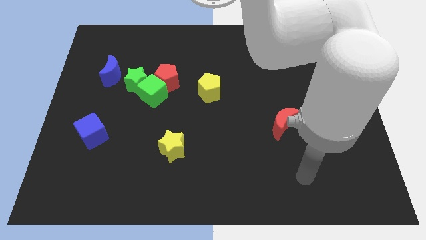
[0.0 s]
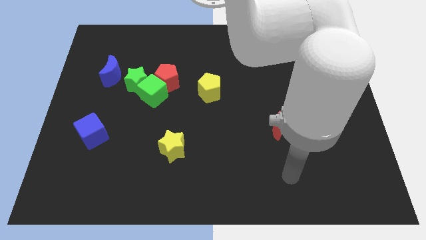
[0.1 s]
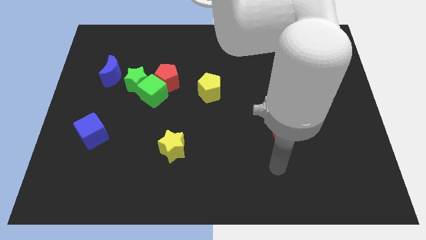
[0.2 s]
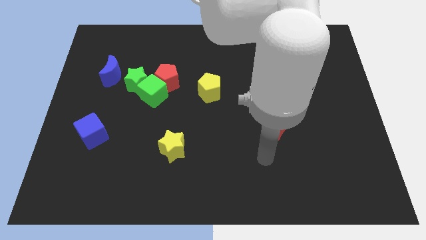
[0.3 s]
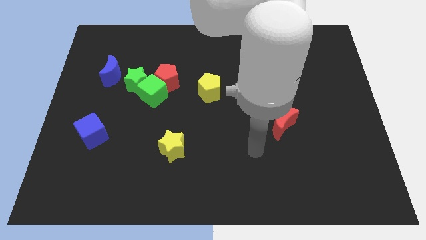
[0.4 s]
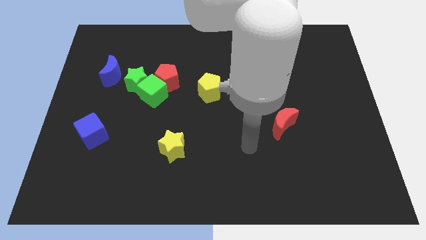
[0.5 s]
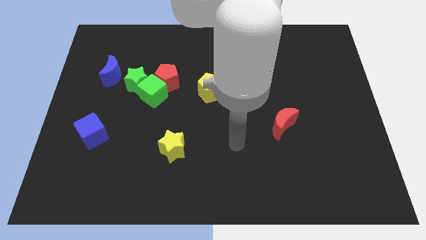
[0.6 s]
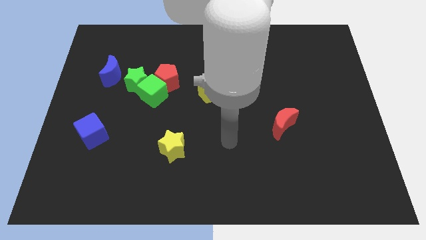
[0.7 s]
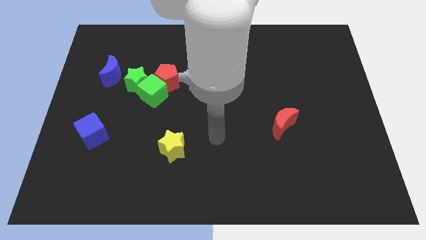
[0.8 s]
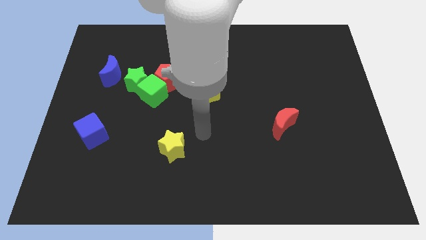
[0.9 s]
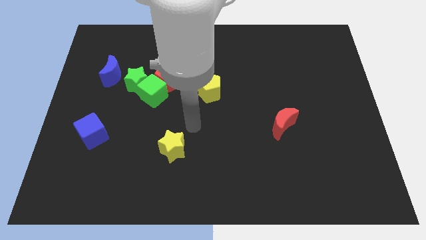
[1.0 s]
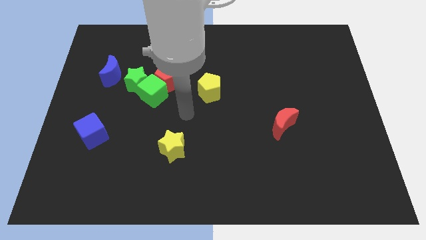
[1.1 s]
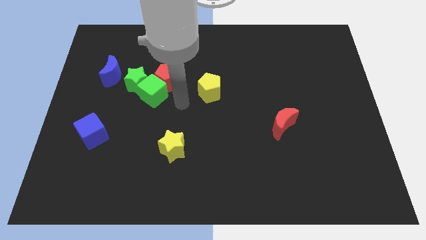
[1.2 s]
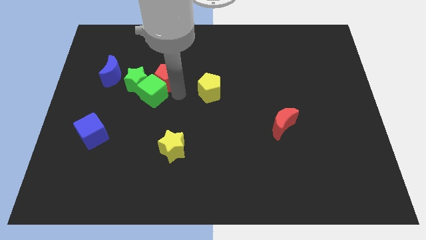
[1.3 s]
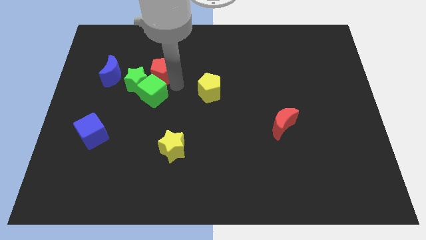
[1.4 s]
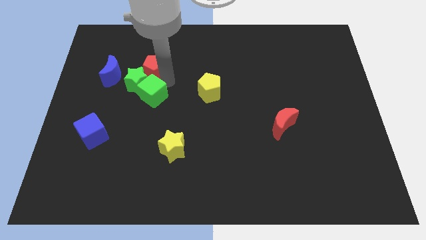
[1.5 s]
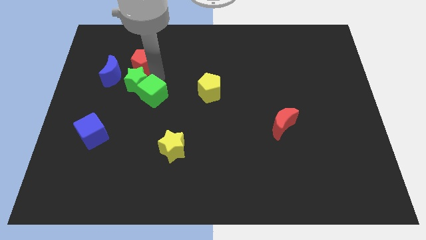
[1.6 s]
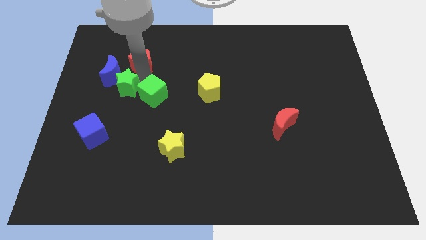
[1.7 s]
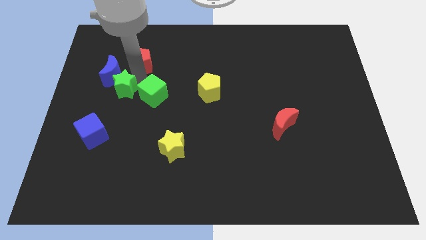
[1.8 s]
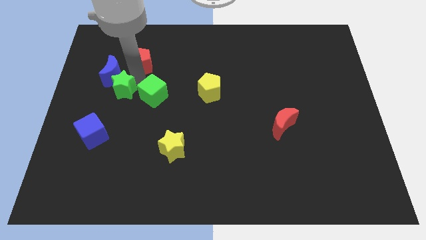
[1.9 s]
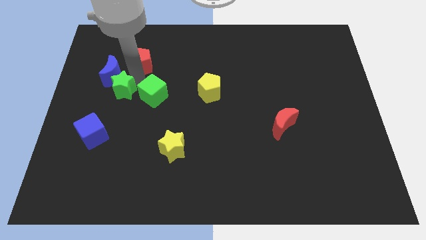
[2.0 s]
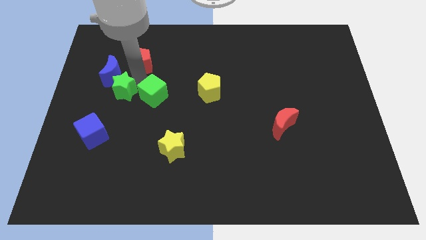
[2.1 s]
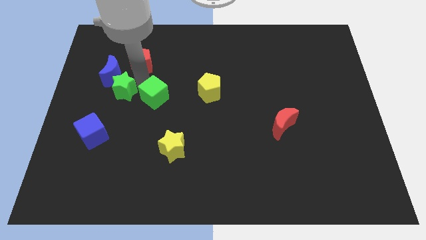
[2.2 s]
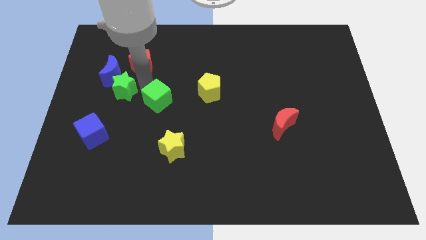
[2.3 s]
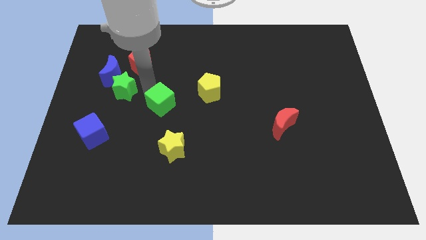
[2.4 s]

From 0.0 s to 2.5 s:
move the green cube away from the green star and red pentagon

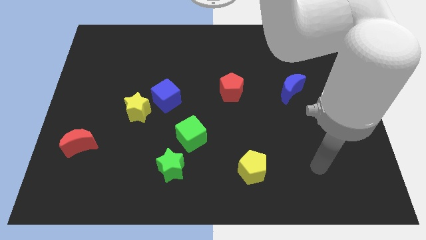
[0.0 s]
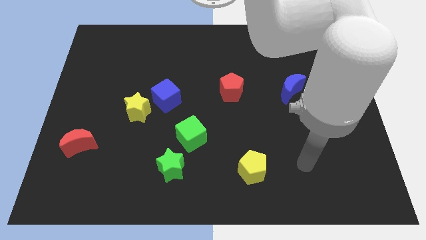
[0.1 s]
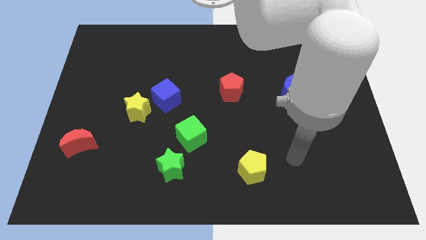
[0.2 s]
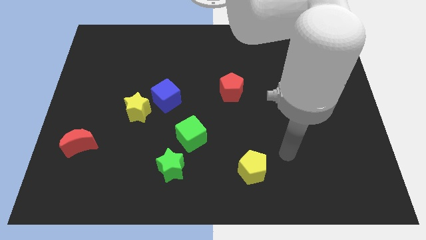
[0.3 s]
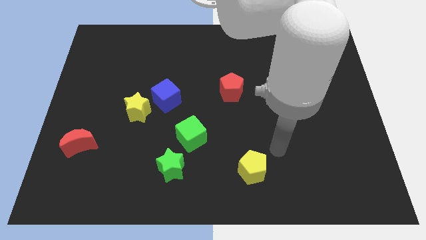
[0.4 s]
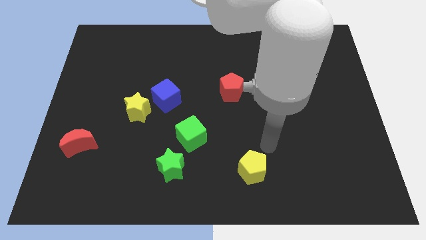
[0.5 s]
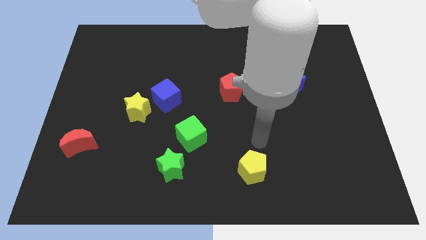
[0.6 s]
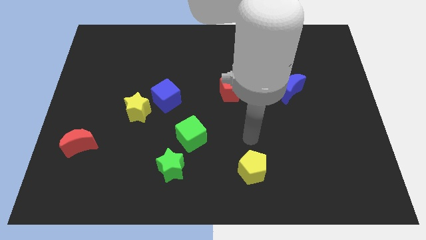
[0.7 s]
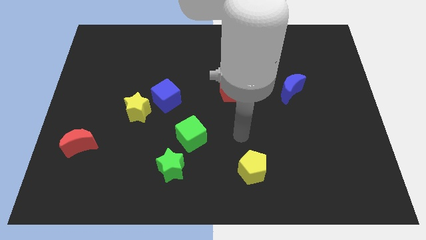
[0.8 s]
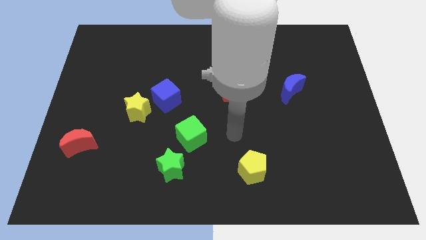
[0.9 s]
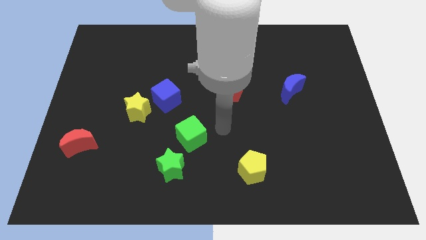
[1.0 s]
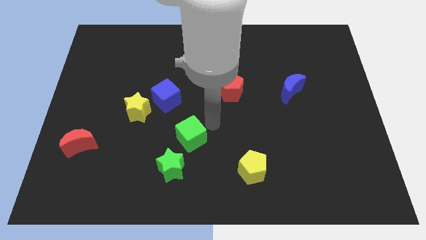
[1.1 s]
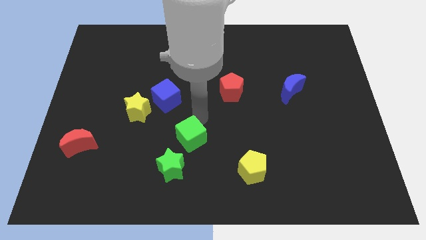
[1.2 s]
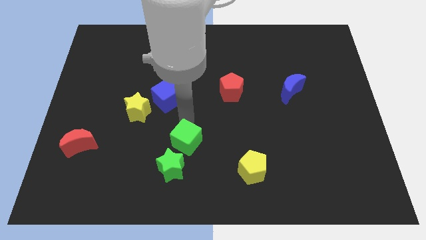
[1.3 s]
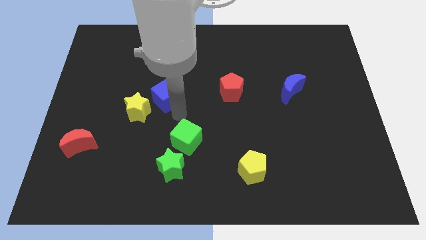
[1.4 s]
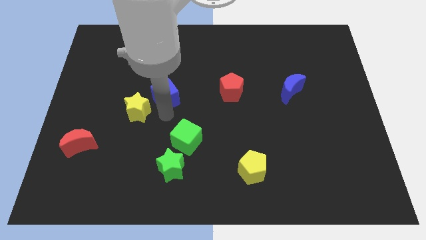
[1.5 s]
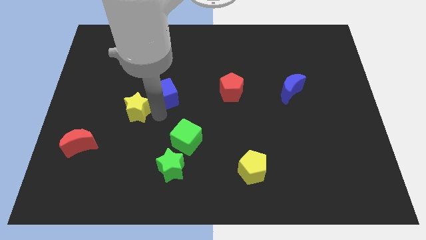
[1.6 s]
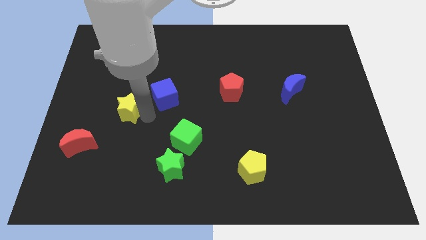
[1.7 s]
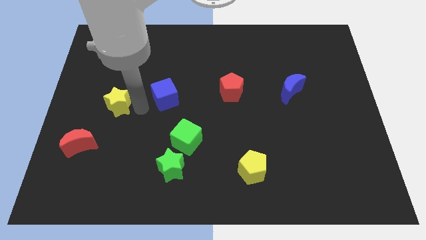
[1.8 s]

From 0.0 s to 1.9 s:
pull the blue cube apart from the yellow star

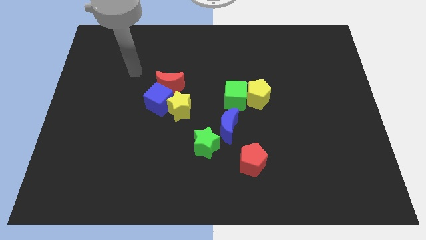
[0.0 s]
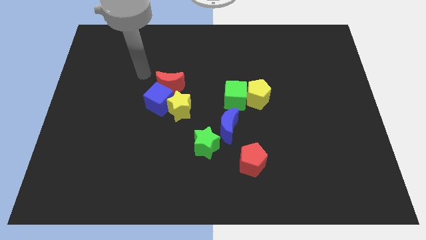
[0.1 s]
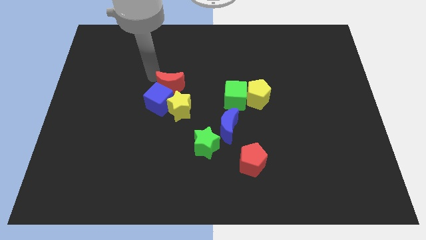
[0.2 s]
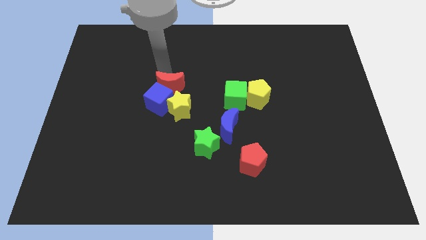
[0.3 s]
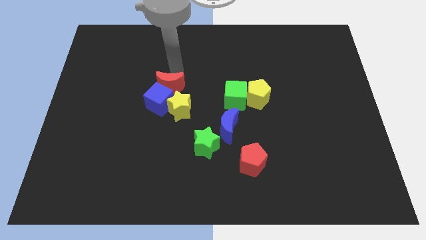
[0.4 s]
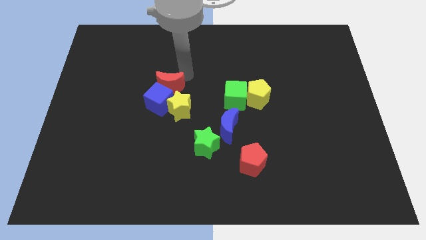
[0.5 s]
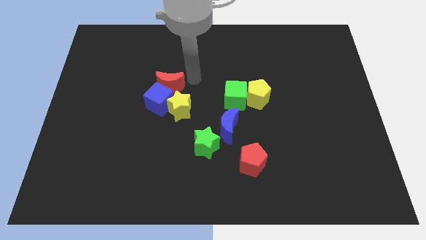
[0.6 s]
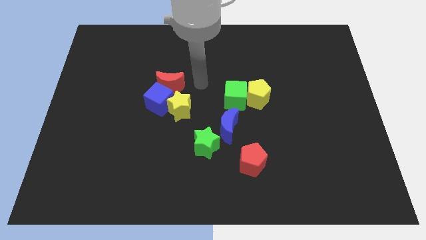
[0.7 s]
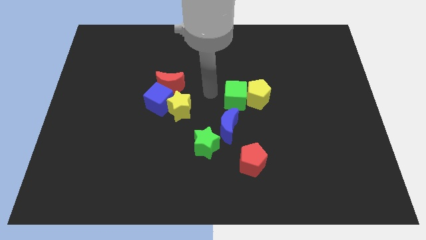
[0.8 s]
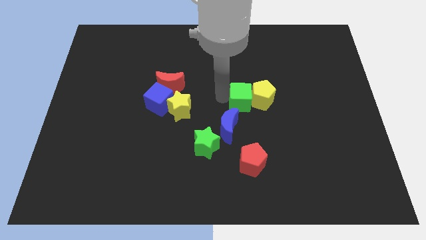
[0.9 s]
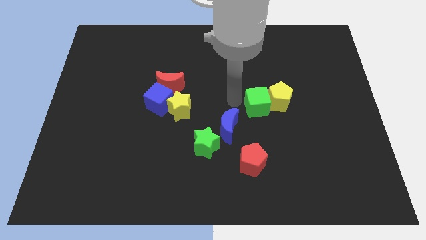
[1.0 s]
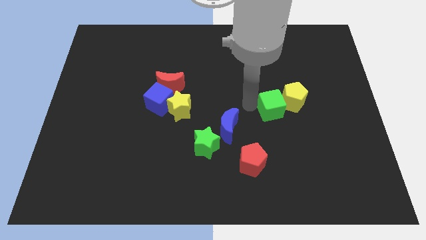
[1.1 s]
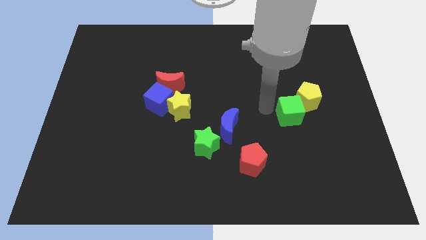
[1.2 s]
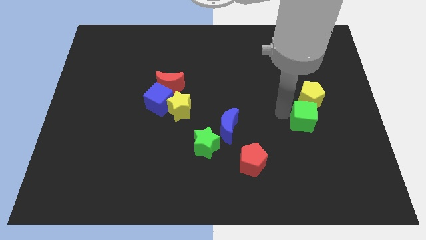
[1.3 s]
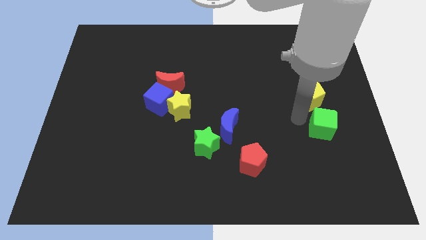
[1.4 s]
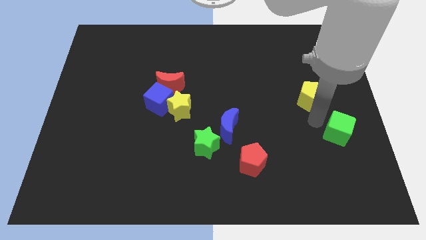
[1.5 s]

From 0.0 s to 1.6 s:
separate the yellow pentagon from the green cube

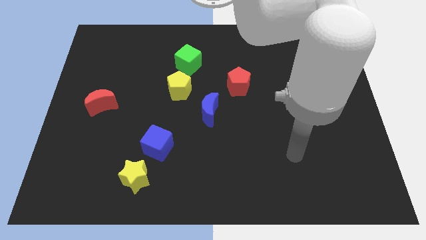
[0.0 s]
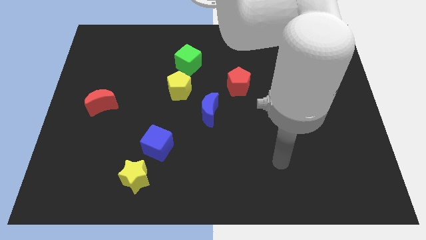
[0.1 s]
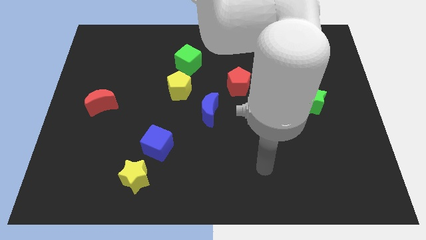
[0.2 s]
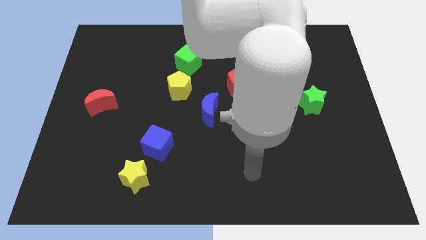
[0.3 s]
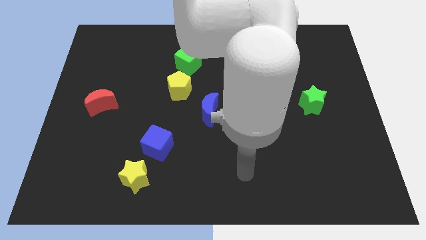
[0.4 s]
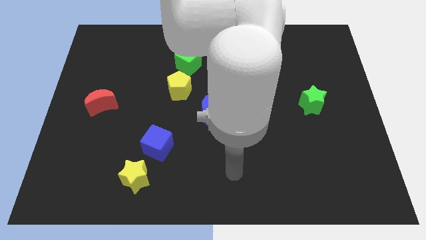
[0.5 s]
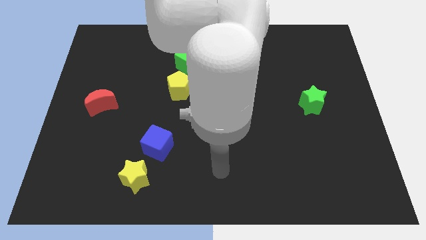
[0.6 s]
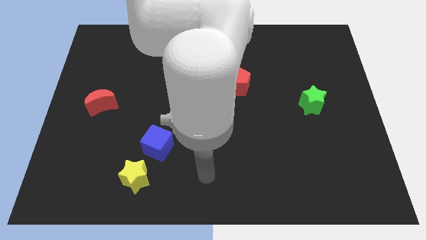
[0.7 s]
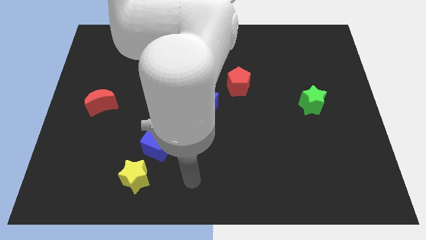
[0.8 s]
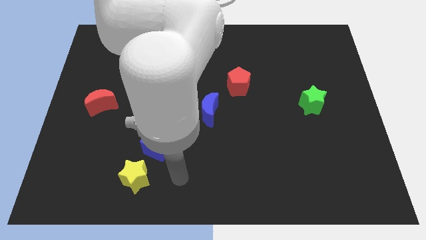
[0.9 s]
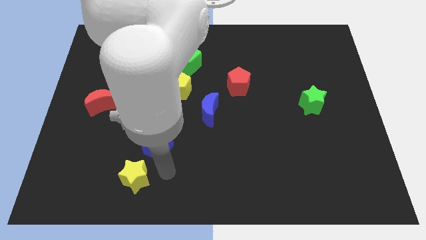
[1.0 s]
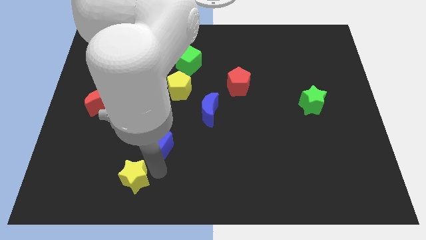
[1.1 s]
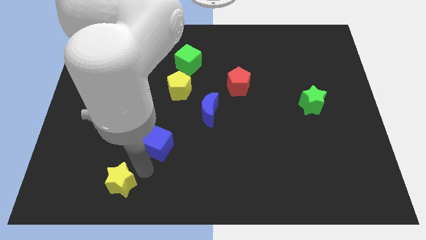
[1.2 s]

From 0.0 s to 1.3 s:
separate the blue cube from the yellow star

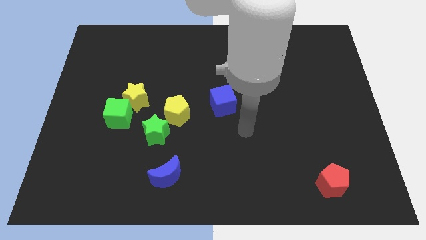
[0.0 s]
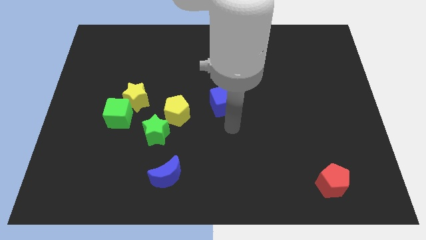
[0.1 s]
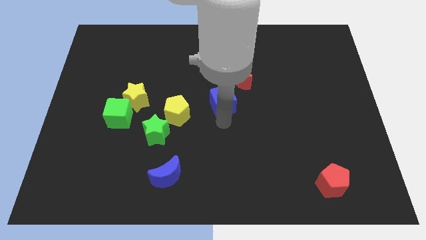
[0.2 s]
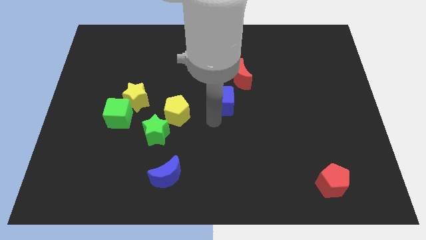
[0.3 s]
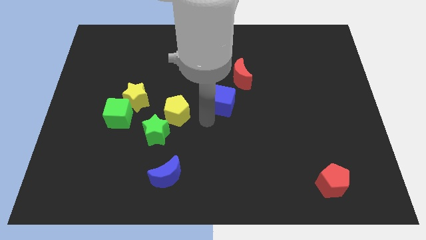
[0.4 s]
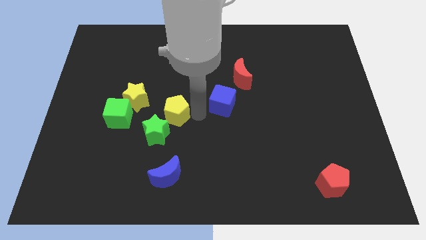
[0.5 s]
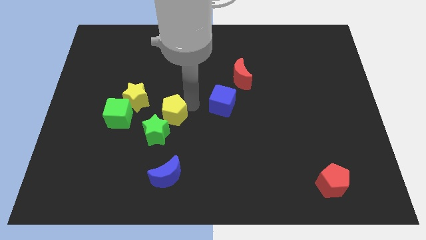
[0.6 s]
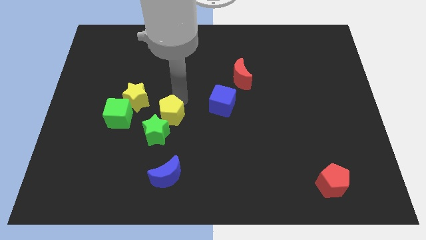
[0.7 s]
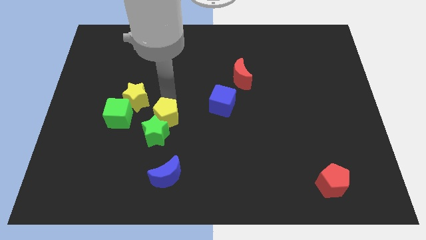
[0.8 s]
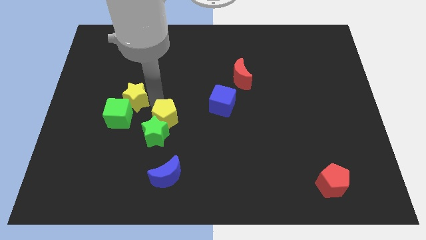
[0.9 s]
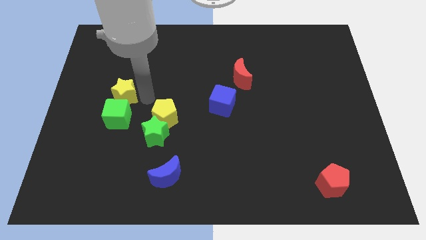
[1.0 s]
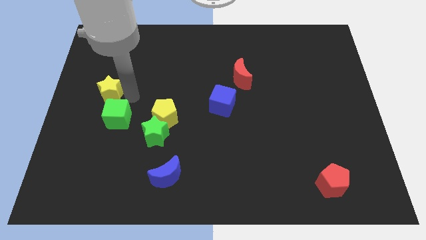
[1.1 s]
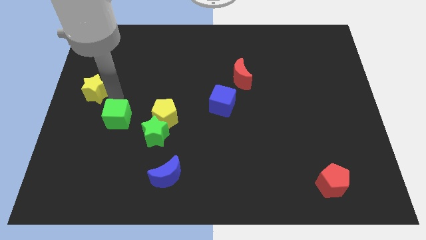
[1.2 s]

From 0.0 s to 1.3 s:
separate the green cube from the yellow star

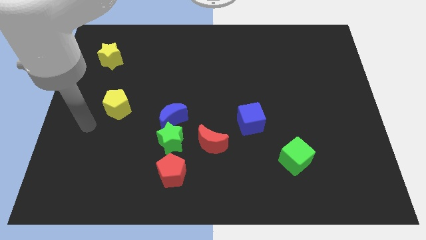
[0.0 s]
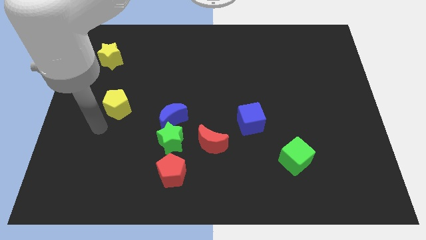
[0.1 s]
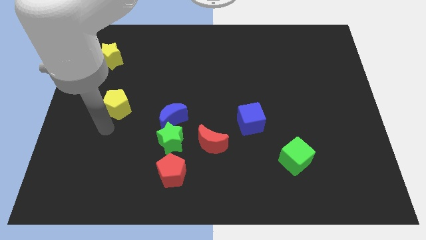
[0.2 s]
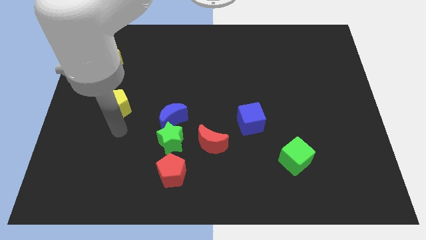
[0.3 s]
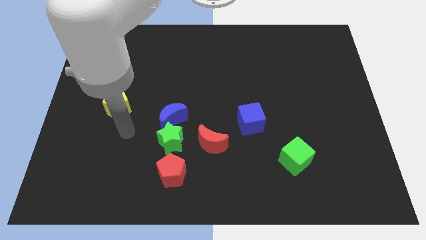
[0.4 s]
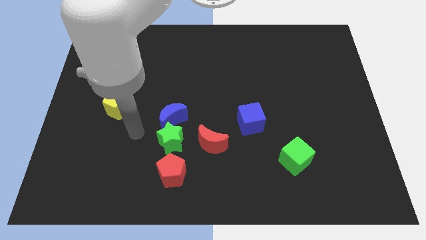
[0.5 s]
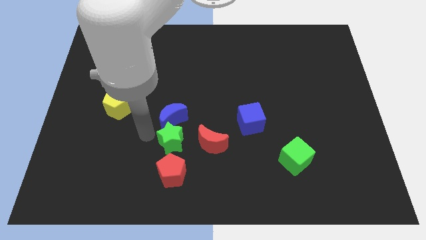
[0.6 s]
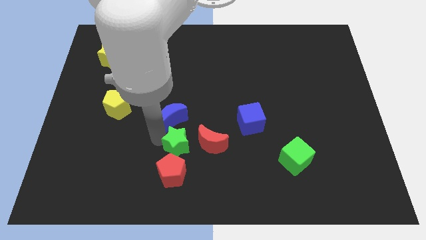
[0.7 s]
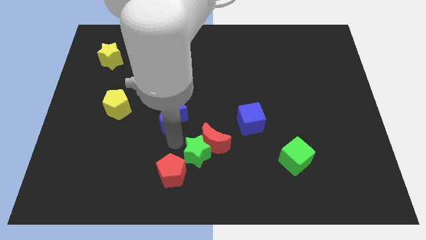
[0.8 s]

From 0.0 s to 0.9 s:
pull the blue moon apart from the green star
